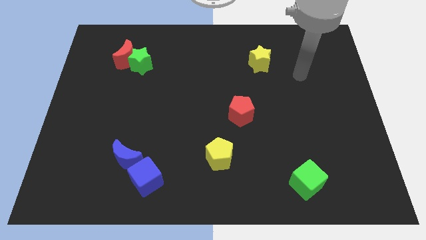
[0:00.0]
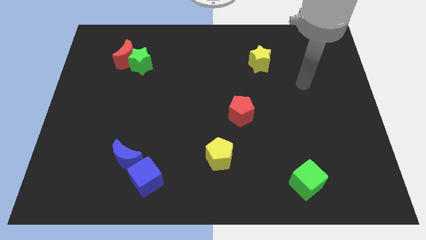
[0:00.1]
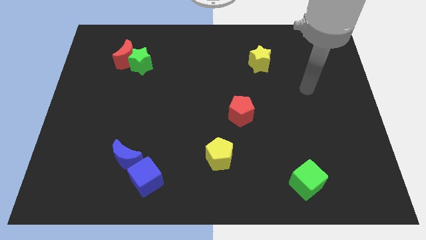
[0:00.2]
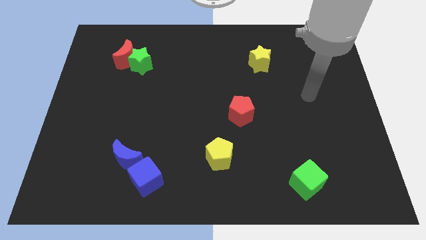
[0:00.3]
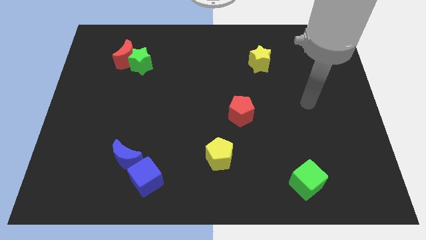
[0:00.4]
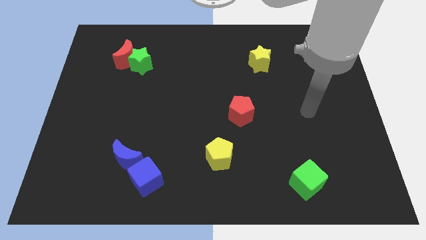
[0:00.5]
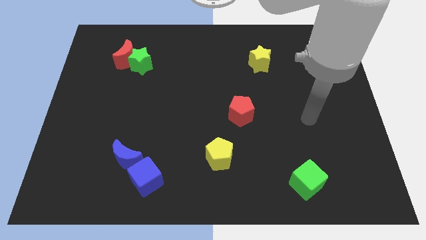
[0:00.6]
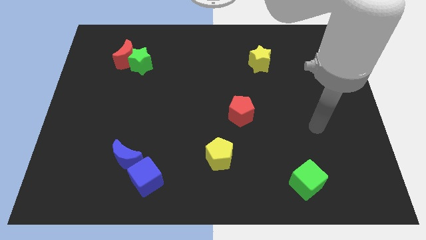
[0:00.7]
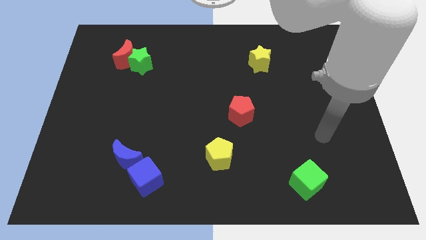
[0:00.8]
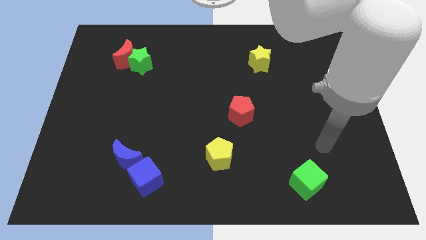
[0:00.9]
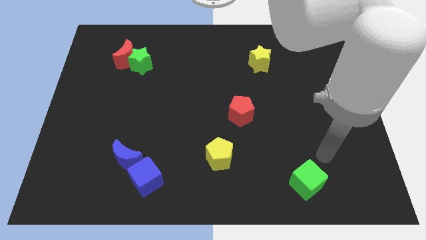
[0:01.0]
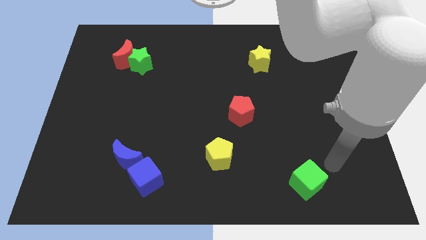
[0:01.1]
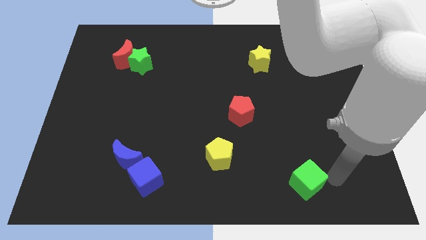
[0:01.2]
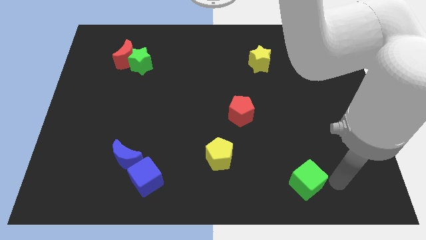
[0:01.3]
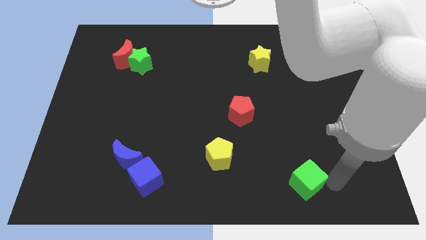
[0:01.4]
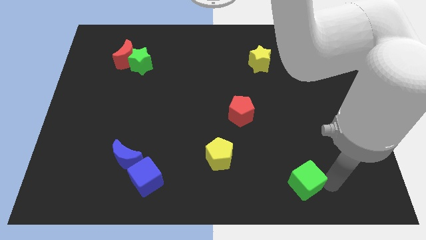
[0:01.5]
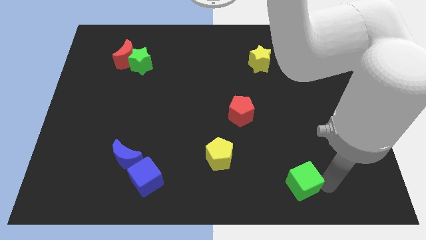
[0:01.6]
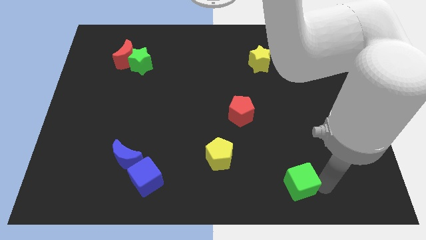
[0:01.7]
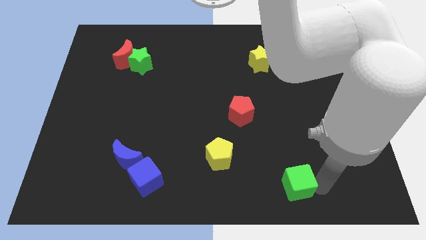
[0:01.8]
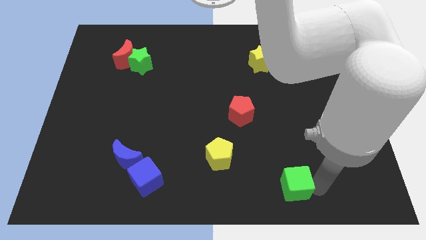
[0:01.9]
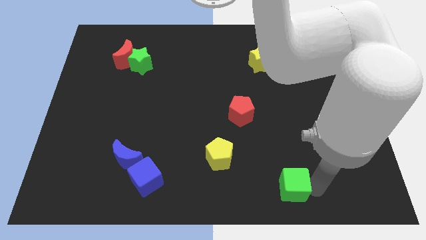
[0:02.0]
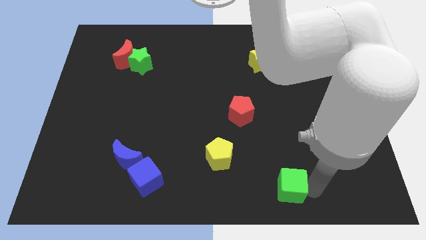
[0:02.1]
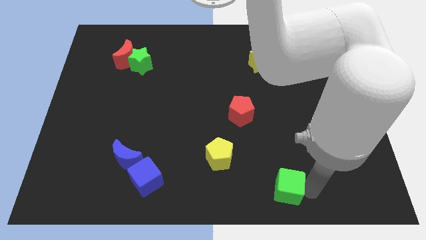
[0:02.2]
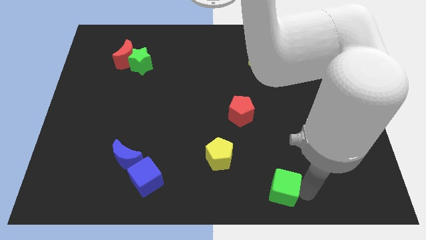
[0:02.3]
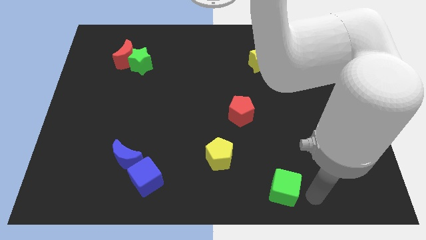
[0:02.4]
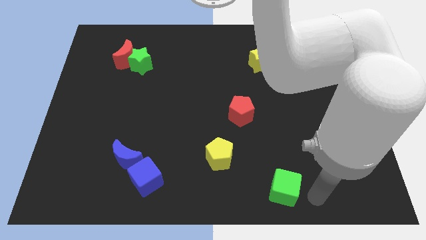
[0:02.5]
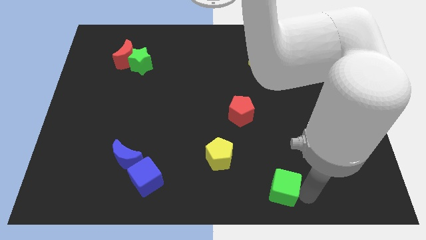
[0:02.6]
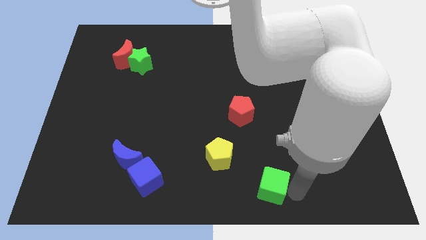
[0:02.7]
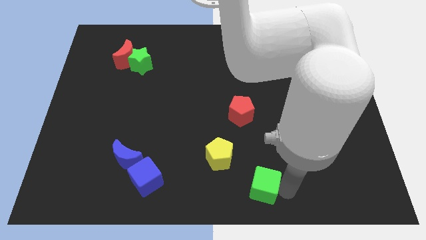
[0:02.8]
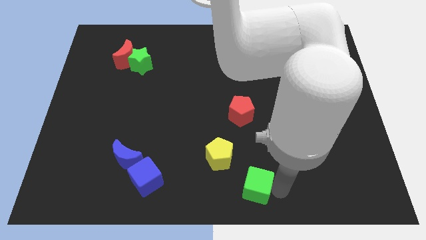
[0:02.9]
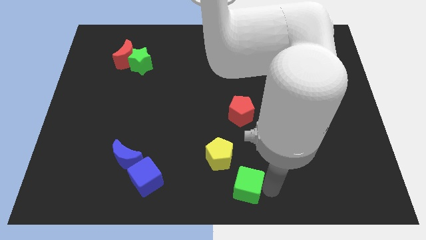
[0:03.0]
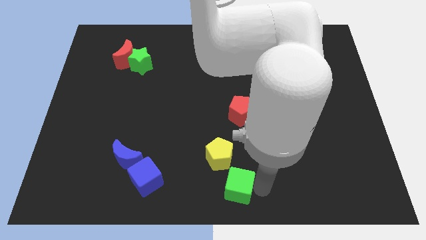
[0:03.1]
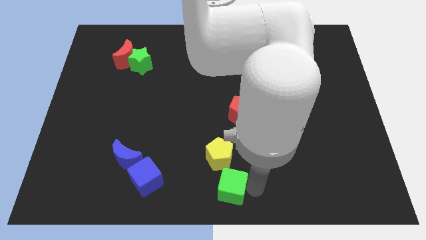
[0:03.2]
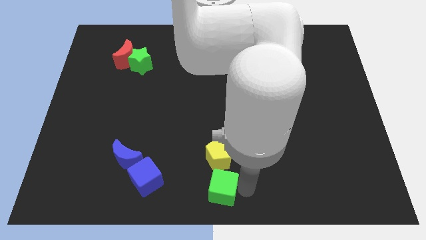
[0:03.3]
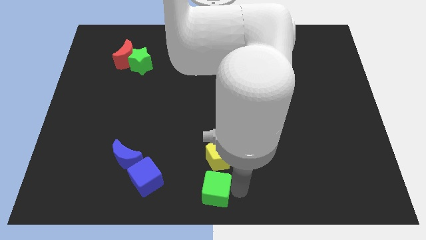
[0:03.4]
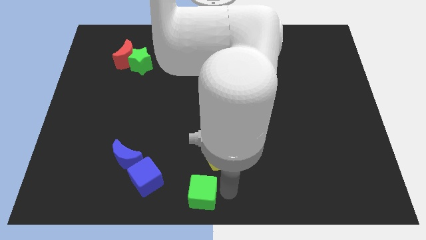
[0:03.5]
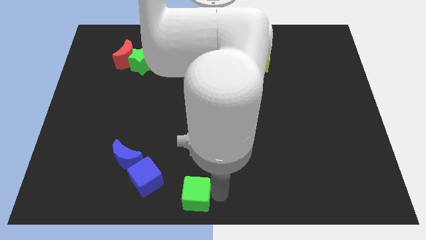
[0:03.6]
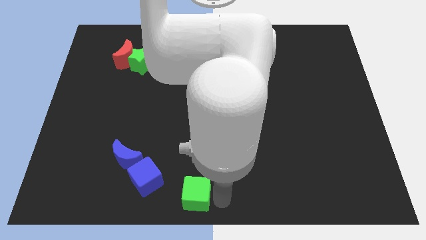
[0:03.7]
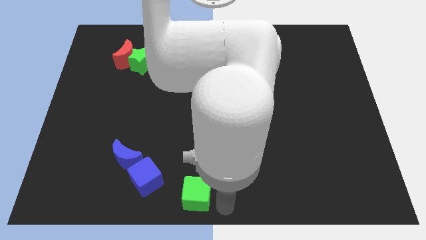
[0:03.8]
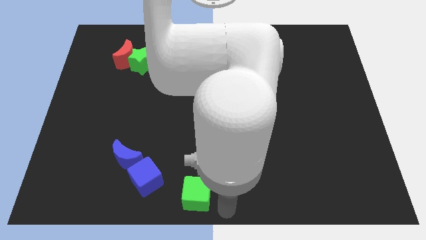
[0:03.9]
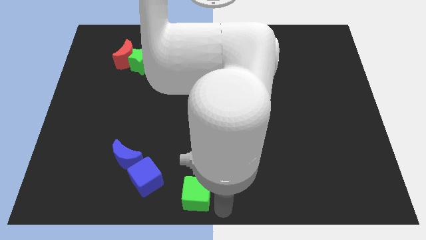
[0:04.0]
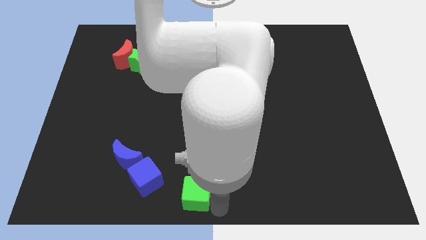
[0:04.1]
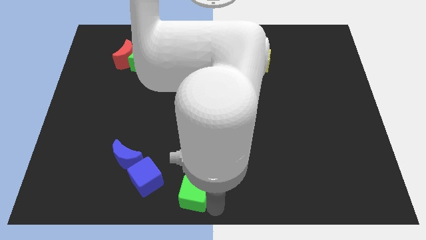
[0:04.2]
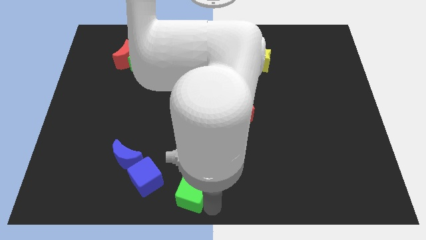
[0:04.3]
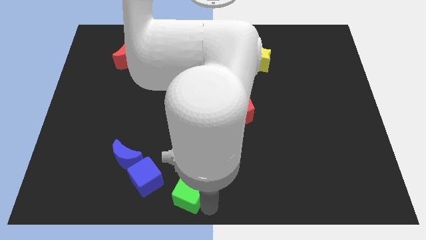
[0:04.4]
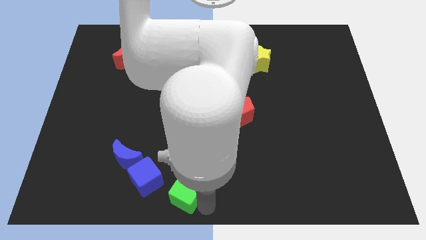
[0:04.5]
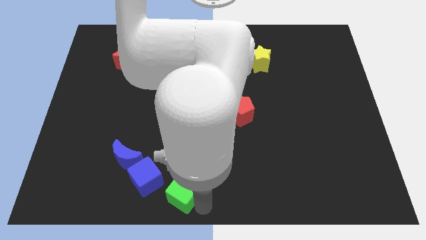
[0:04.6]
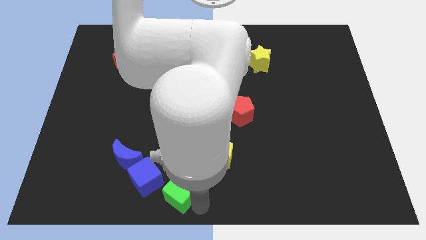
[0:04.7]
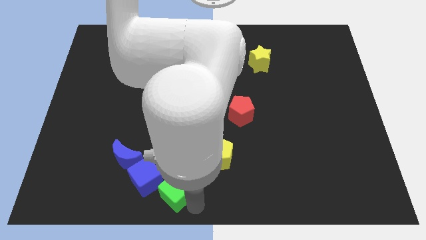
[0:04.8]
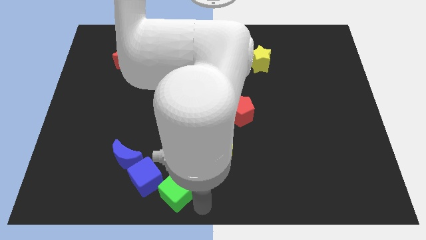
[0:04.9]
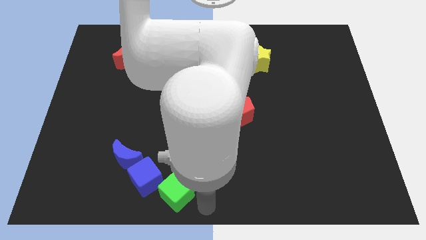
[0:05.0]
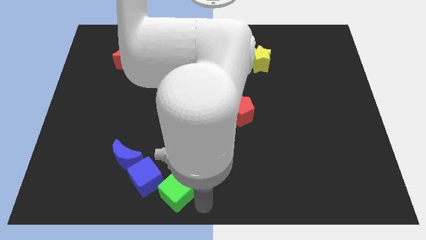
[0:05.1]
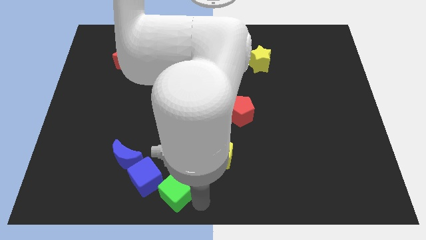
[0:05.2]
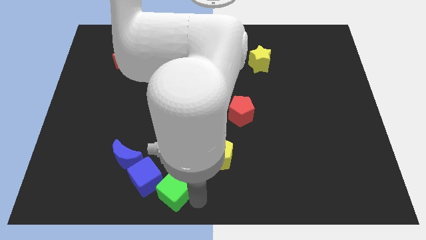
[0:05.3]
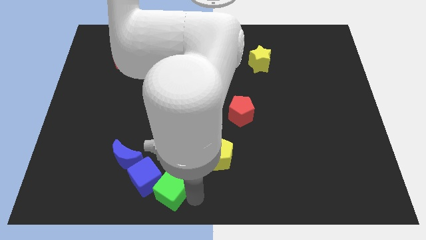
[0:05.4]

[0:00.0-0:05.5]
slide the green cube to the blue cube

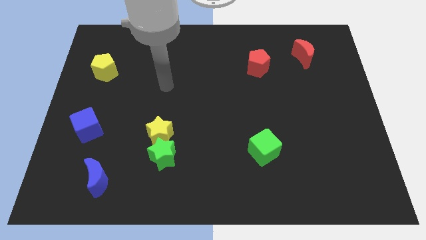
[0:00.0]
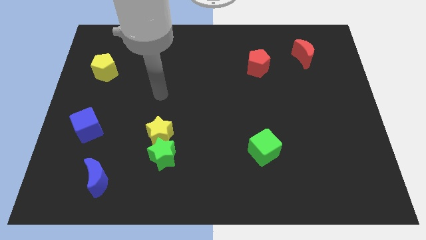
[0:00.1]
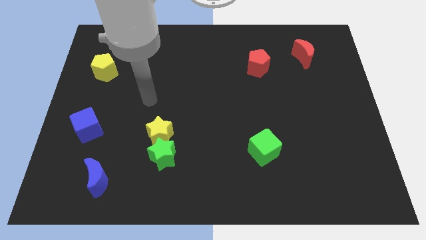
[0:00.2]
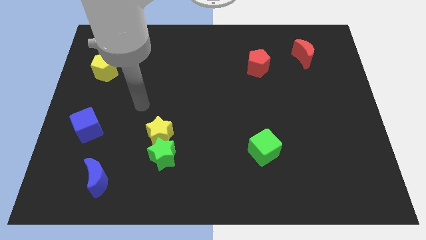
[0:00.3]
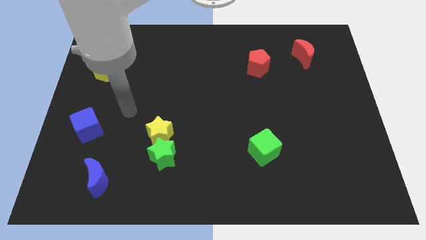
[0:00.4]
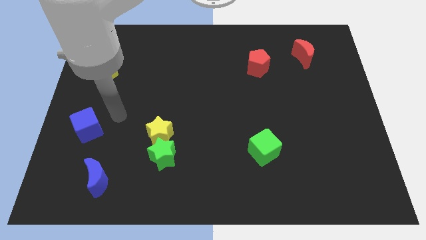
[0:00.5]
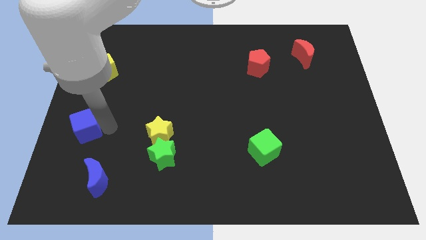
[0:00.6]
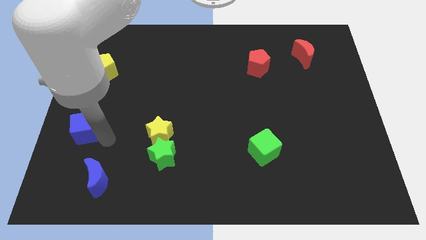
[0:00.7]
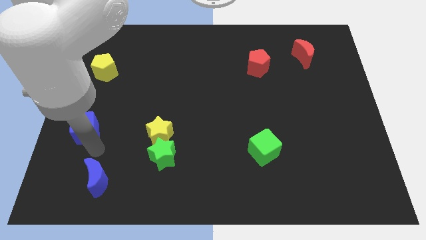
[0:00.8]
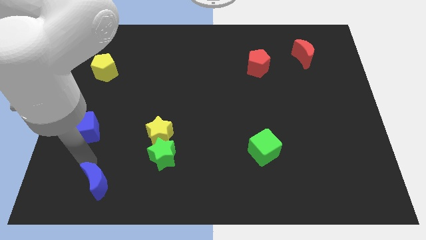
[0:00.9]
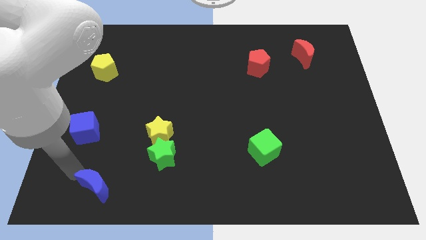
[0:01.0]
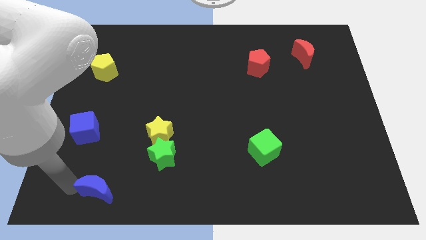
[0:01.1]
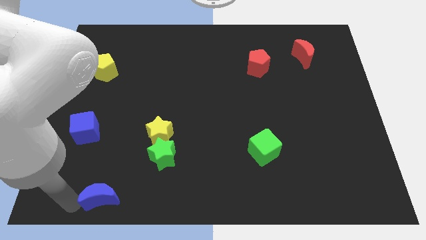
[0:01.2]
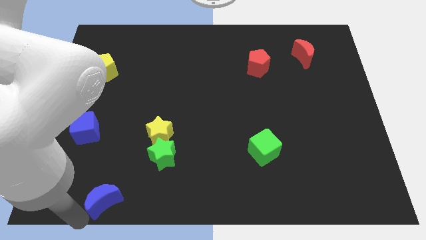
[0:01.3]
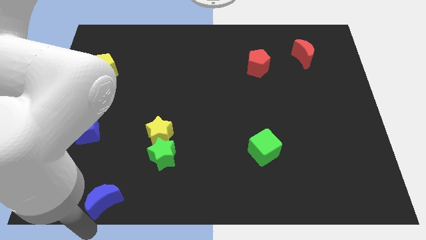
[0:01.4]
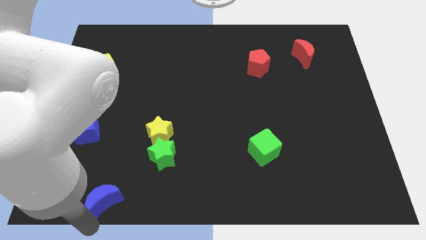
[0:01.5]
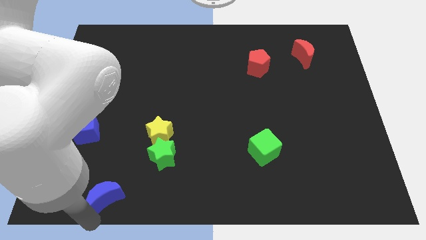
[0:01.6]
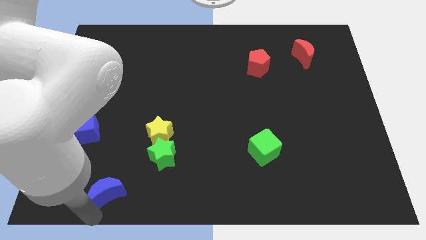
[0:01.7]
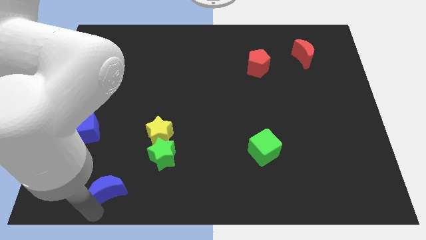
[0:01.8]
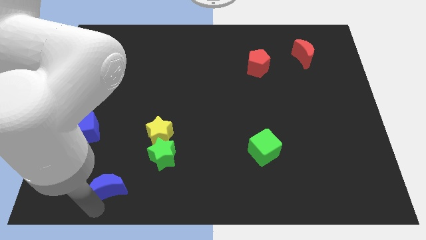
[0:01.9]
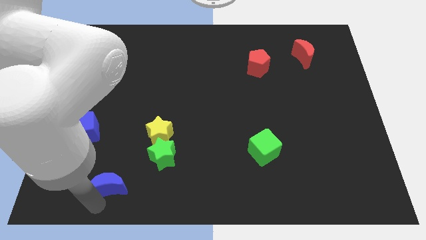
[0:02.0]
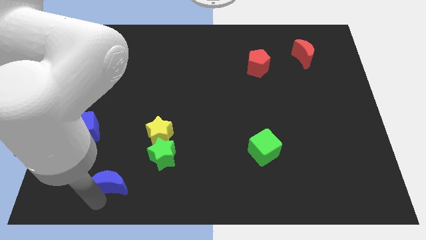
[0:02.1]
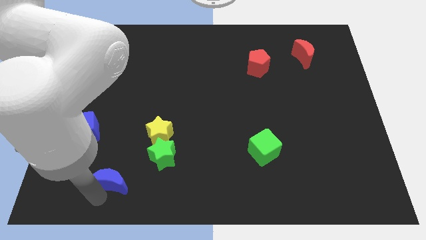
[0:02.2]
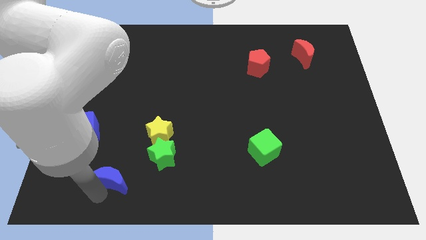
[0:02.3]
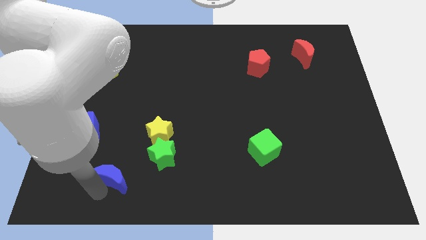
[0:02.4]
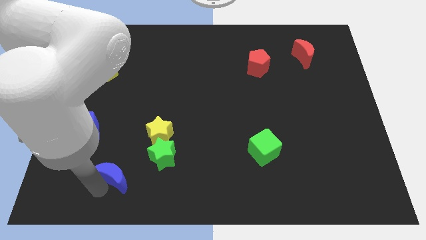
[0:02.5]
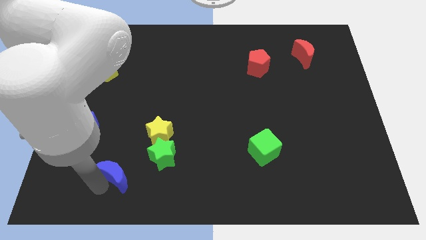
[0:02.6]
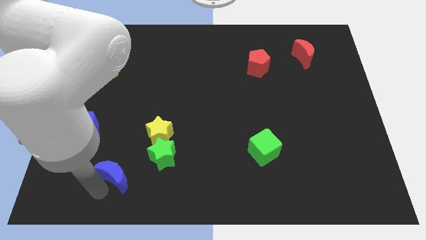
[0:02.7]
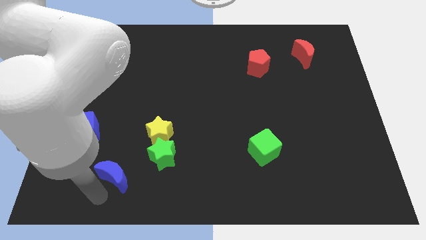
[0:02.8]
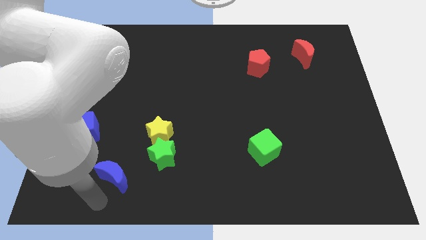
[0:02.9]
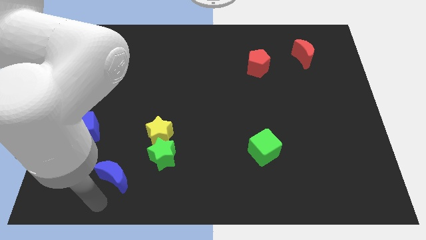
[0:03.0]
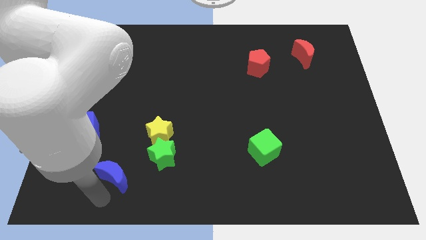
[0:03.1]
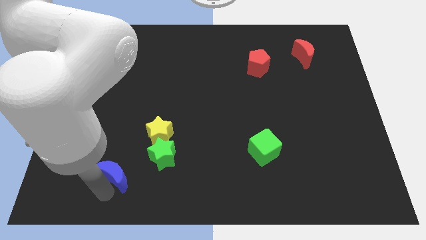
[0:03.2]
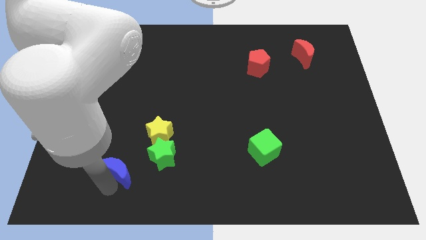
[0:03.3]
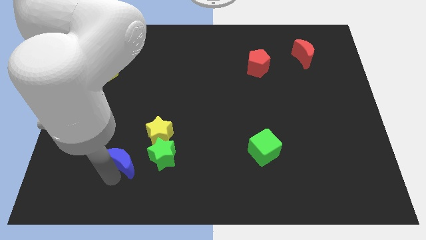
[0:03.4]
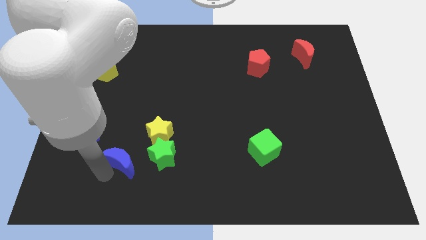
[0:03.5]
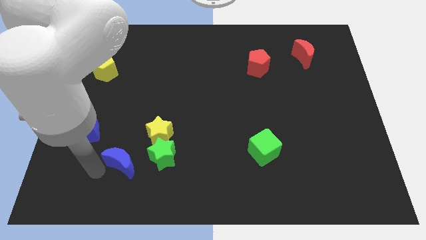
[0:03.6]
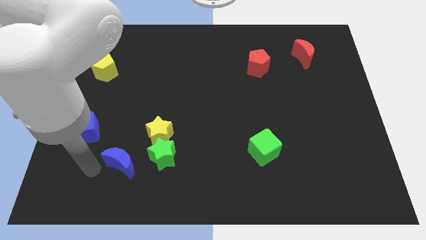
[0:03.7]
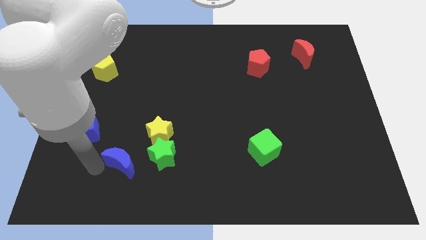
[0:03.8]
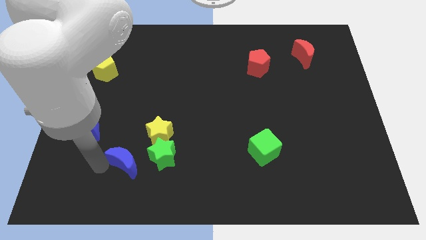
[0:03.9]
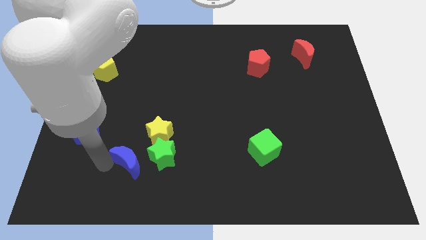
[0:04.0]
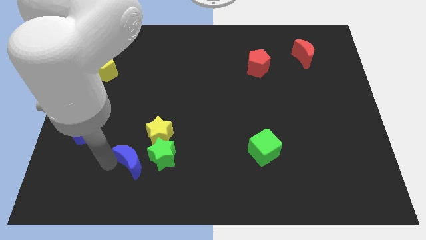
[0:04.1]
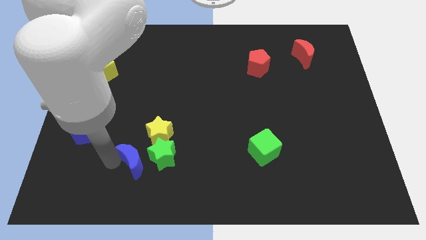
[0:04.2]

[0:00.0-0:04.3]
slide the blue moon towards the green star
